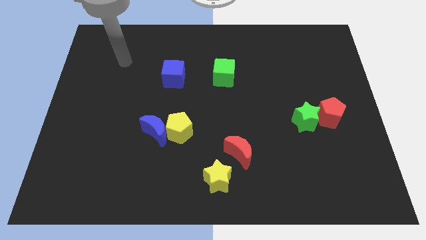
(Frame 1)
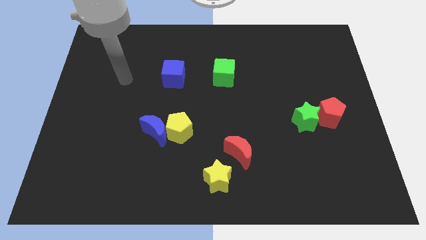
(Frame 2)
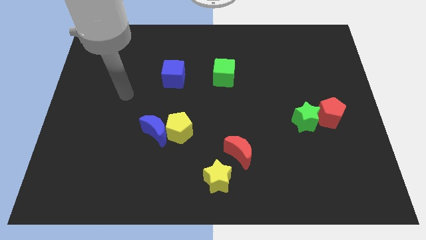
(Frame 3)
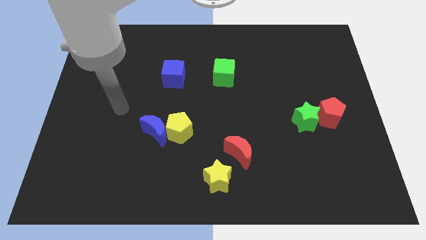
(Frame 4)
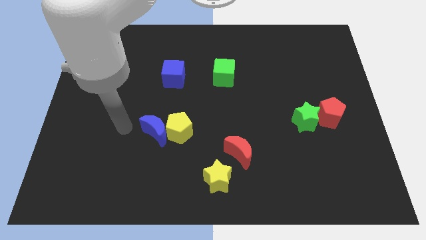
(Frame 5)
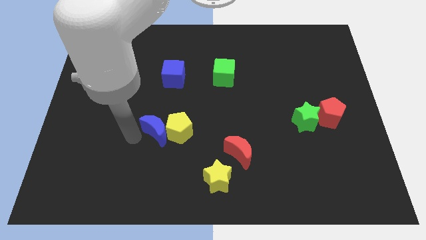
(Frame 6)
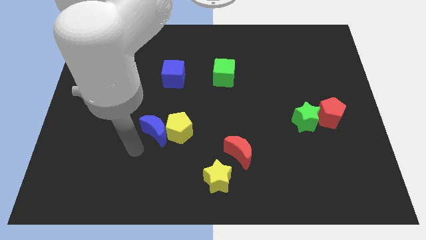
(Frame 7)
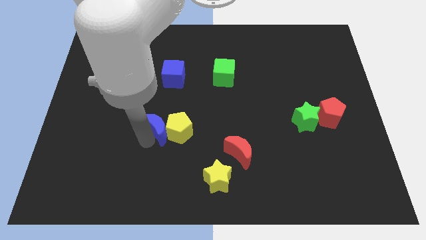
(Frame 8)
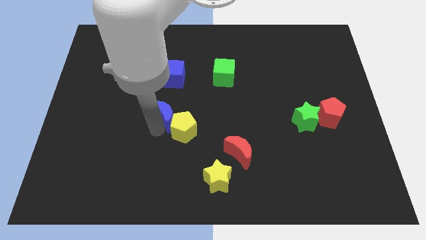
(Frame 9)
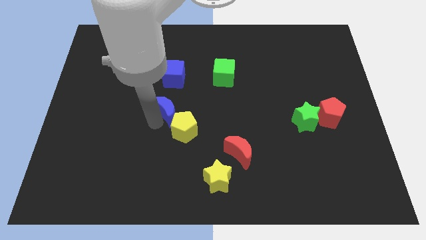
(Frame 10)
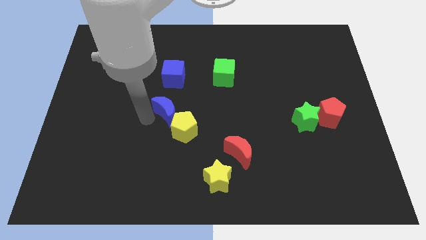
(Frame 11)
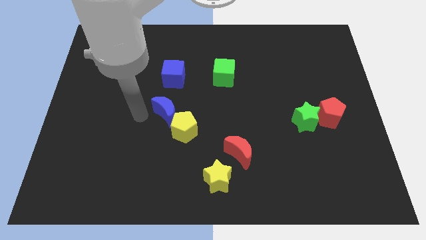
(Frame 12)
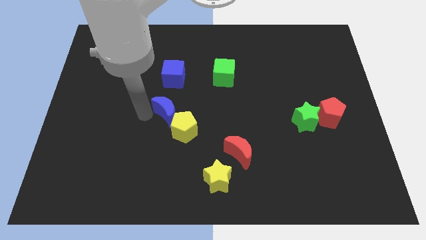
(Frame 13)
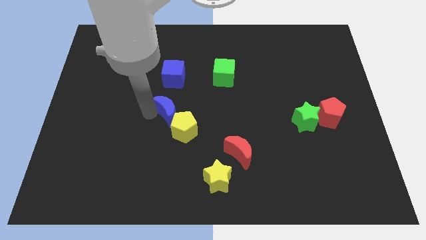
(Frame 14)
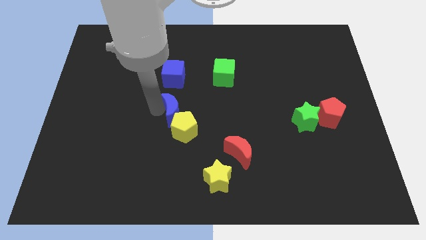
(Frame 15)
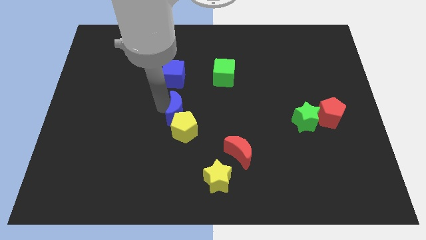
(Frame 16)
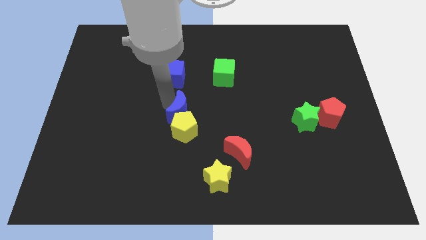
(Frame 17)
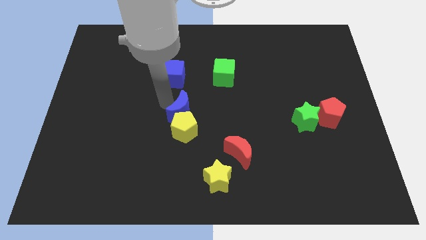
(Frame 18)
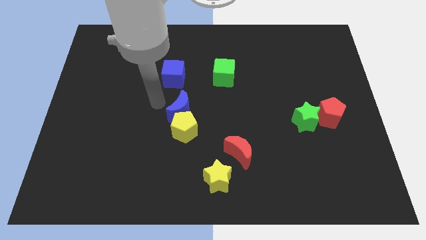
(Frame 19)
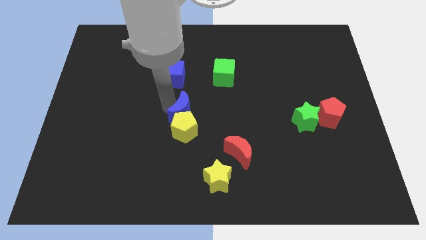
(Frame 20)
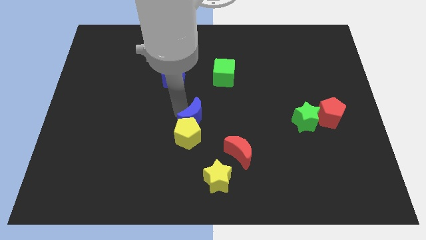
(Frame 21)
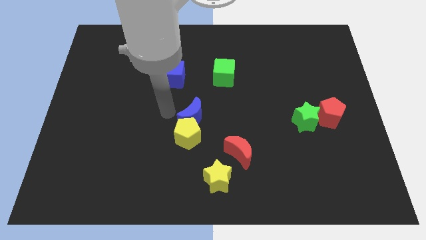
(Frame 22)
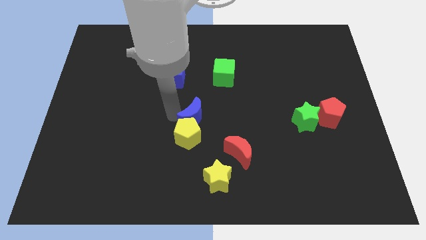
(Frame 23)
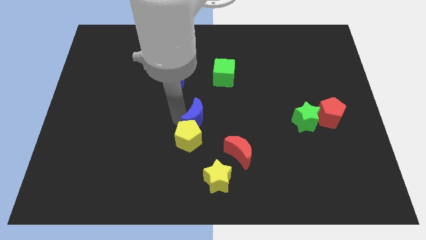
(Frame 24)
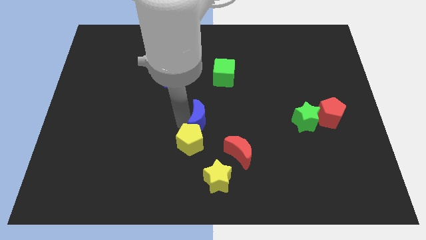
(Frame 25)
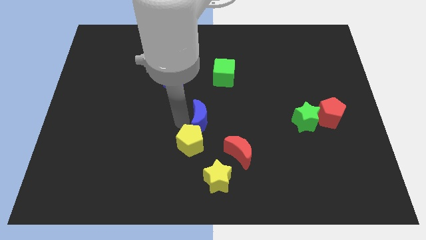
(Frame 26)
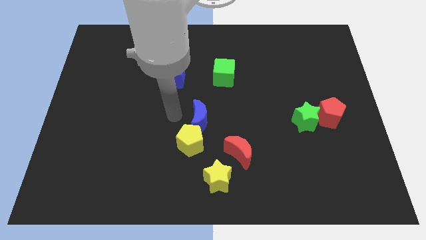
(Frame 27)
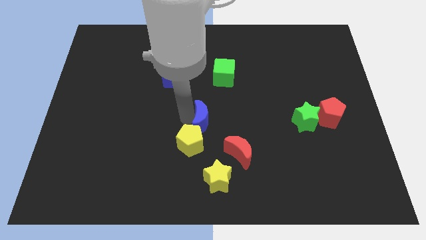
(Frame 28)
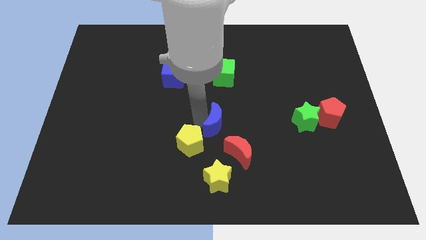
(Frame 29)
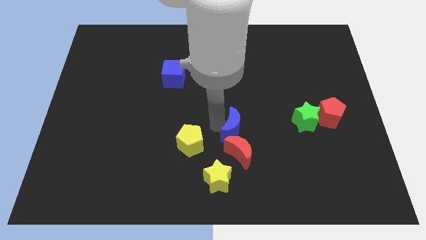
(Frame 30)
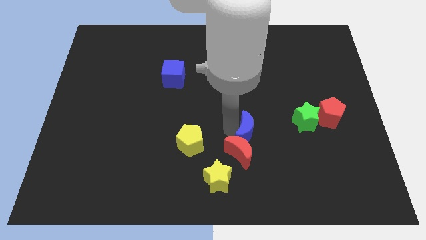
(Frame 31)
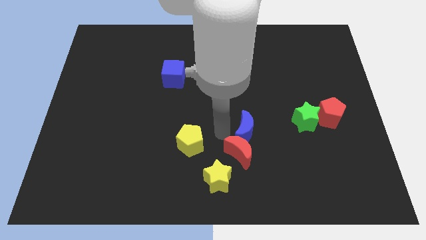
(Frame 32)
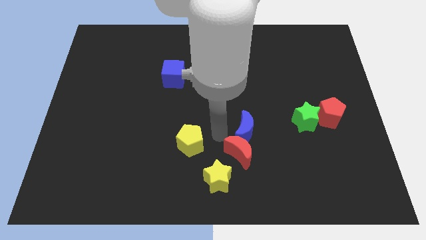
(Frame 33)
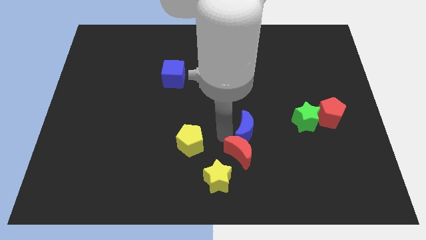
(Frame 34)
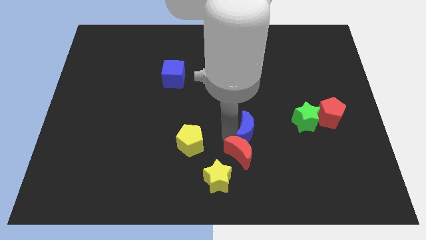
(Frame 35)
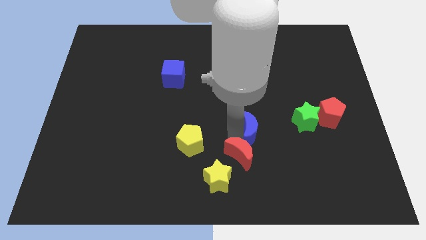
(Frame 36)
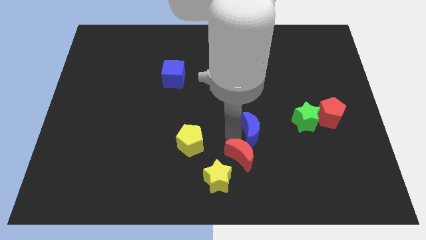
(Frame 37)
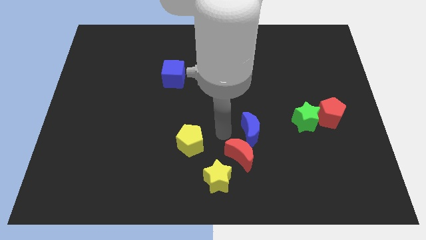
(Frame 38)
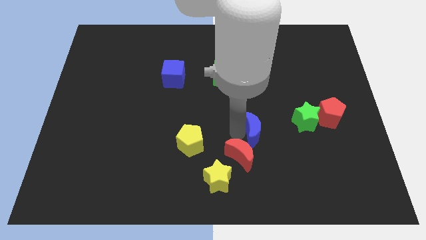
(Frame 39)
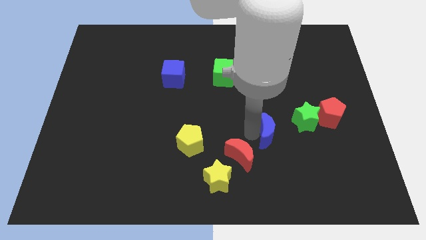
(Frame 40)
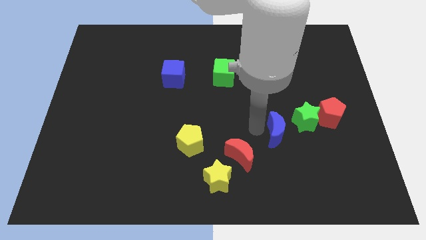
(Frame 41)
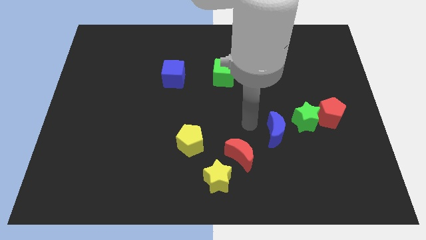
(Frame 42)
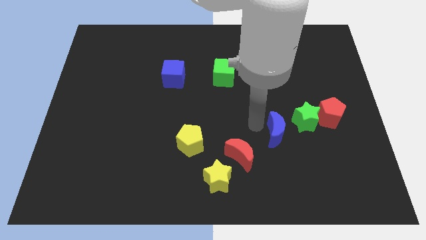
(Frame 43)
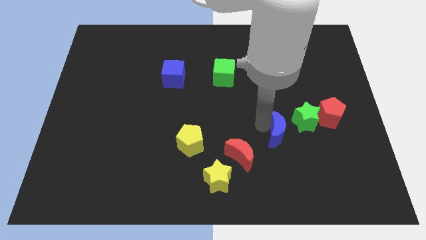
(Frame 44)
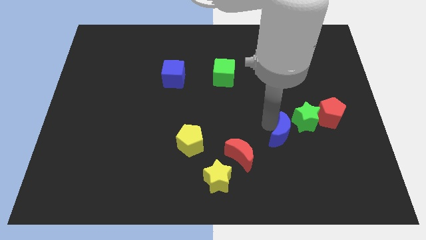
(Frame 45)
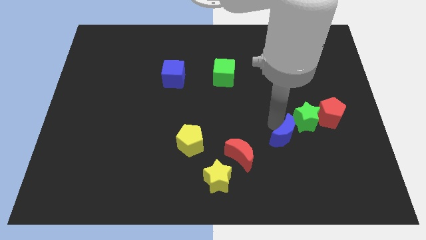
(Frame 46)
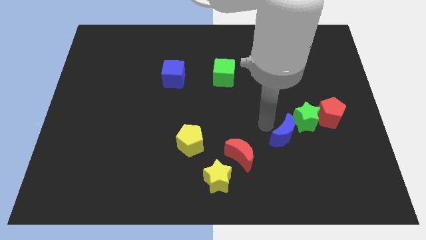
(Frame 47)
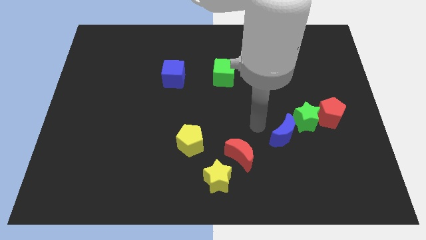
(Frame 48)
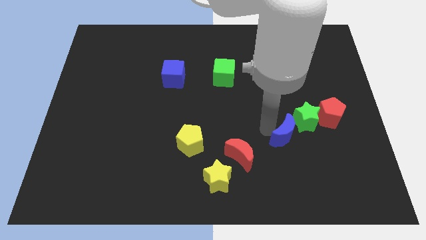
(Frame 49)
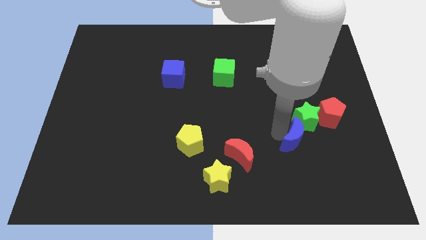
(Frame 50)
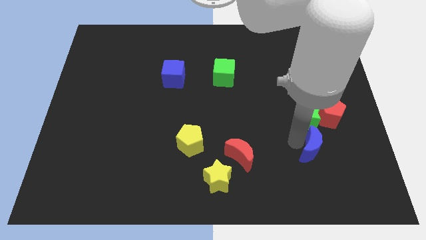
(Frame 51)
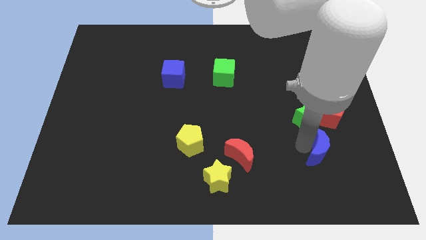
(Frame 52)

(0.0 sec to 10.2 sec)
push the blue moon below the red pentagon

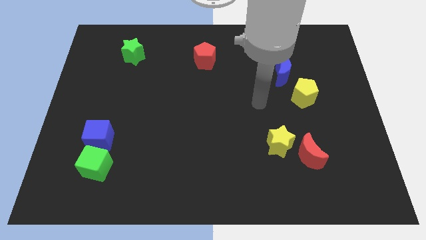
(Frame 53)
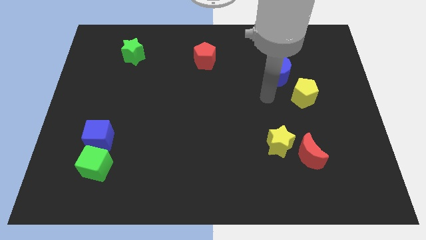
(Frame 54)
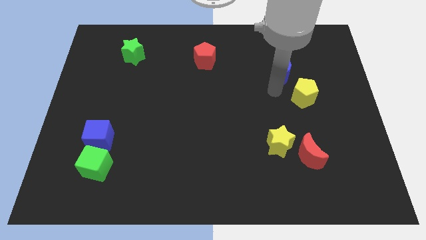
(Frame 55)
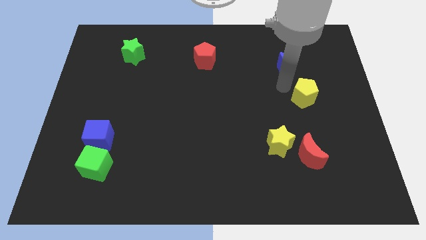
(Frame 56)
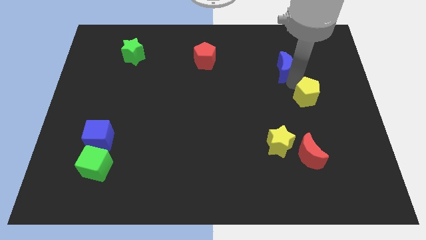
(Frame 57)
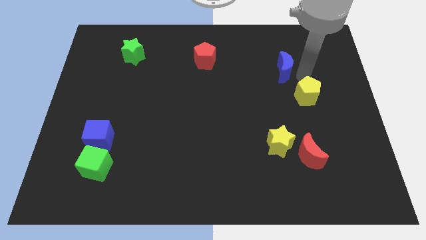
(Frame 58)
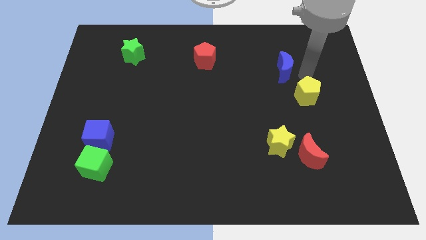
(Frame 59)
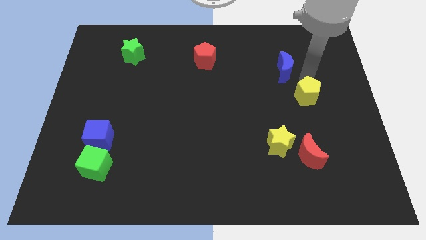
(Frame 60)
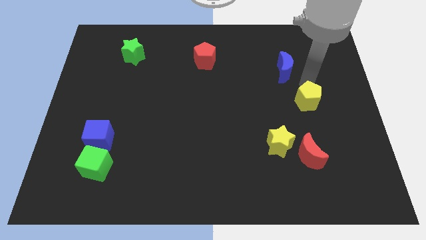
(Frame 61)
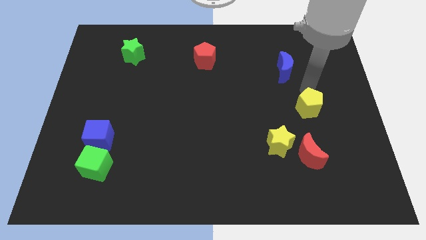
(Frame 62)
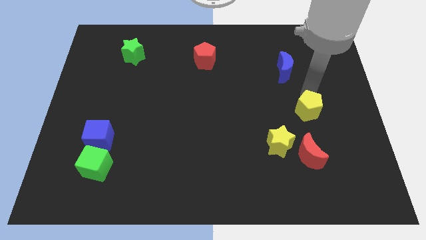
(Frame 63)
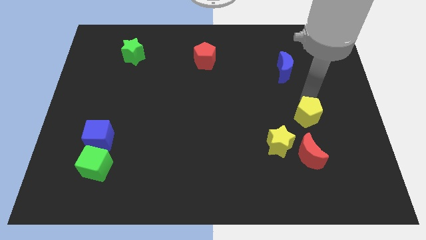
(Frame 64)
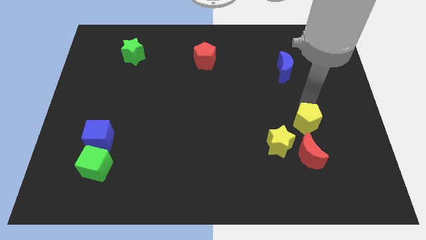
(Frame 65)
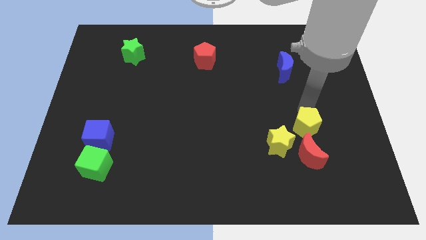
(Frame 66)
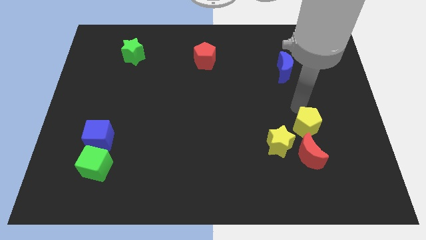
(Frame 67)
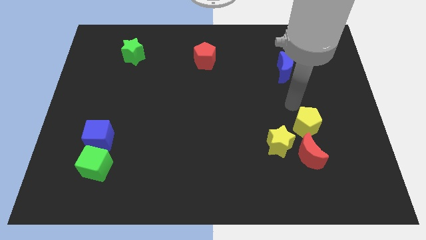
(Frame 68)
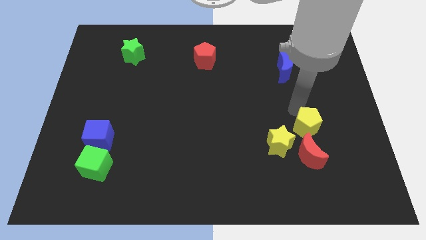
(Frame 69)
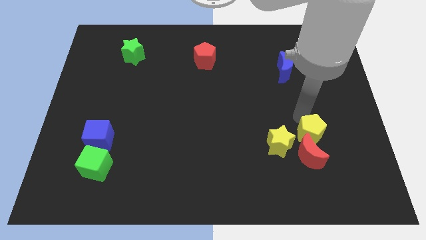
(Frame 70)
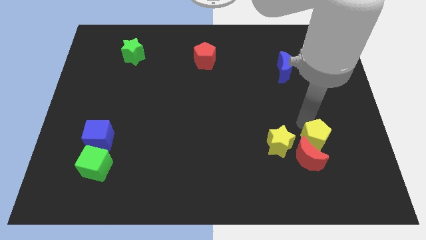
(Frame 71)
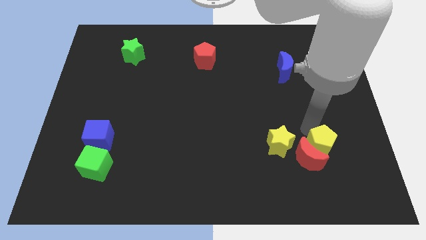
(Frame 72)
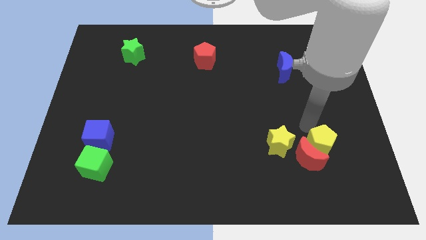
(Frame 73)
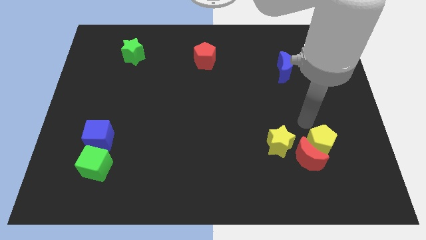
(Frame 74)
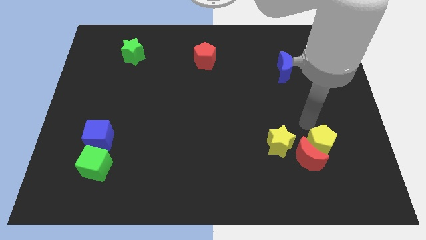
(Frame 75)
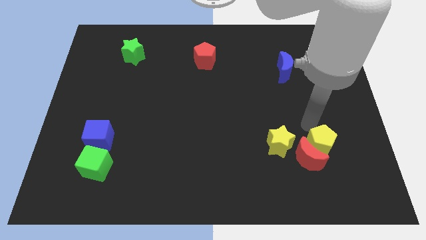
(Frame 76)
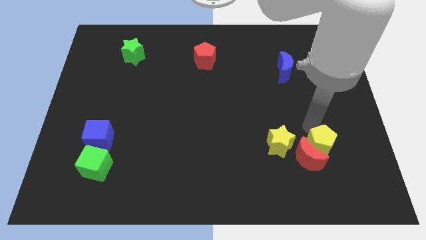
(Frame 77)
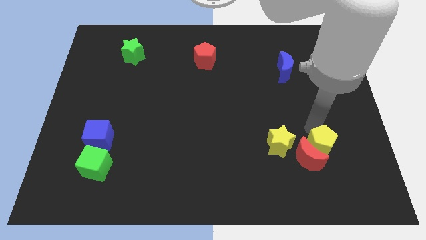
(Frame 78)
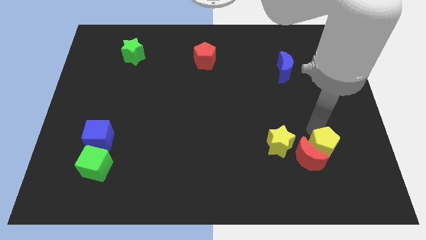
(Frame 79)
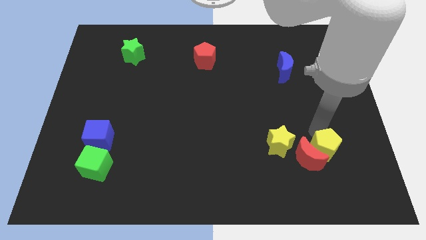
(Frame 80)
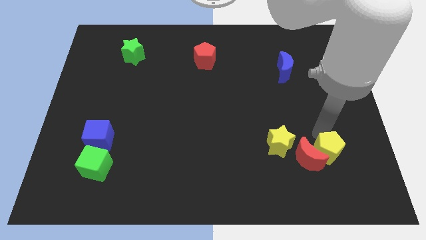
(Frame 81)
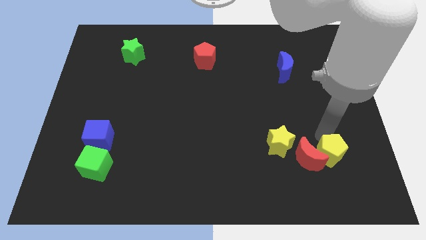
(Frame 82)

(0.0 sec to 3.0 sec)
push the yellow pentagon to the bottom right of the red moon
